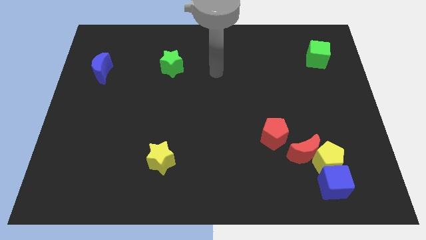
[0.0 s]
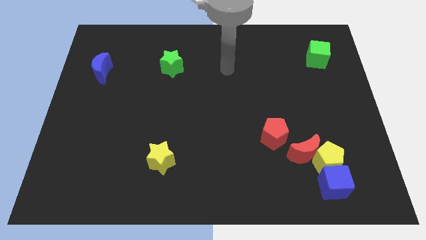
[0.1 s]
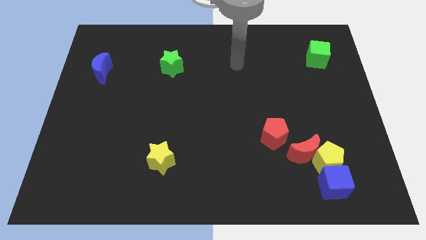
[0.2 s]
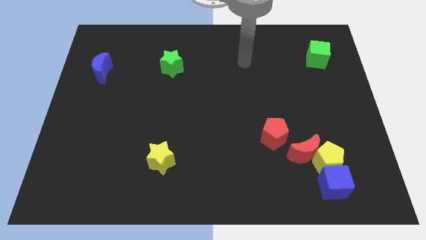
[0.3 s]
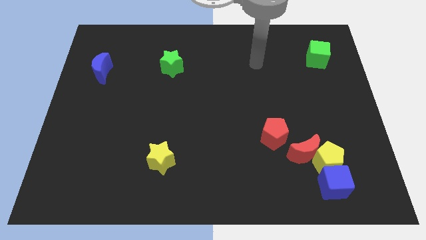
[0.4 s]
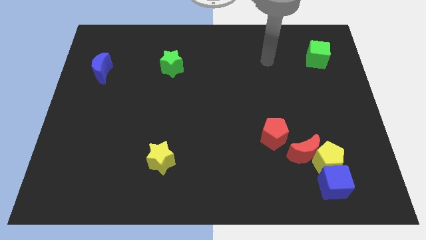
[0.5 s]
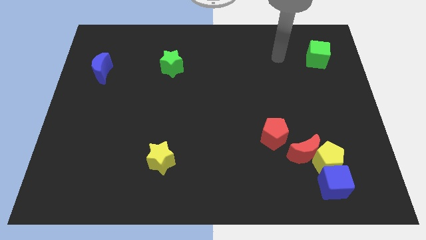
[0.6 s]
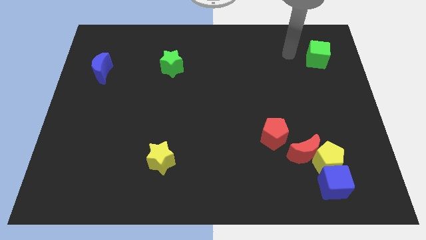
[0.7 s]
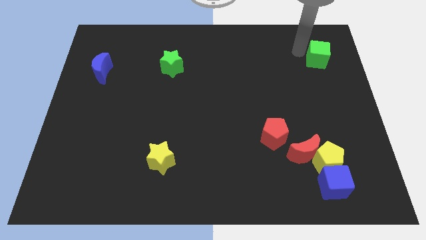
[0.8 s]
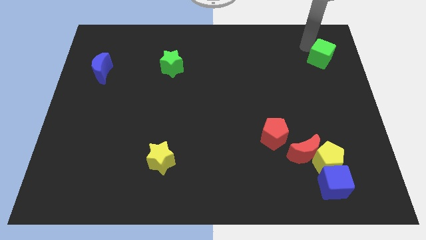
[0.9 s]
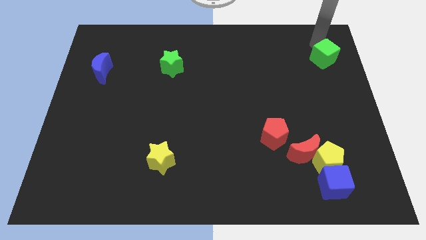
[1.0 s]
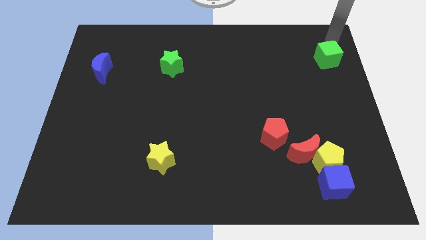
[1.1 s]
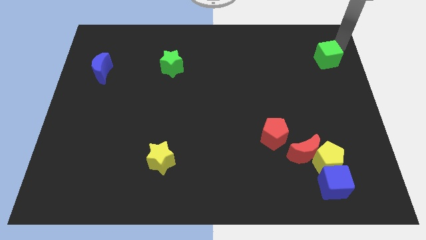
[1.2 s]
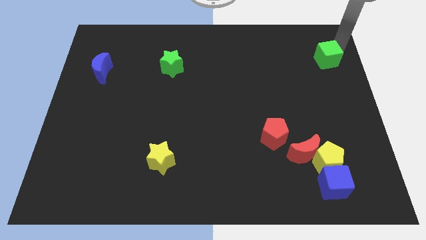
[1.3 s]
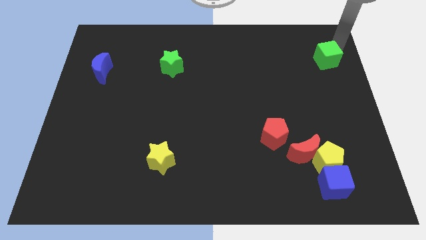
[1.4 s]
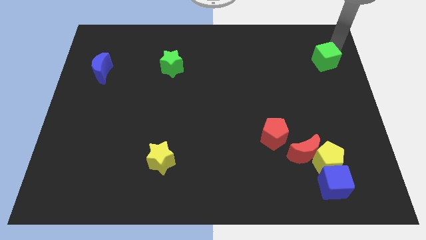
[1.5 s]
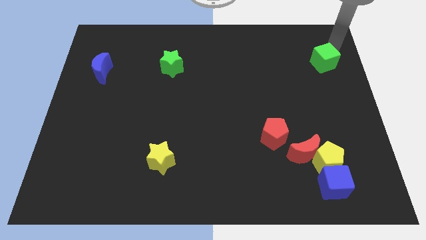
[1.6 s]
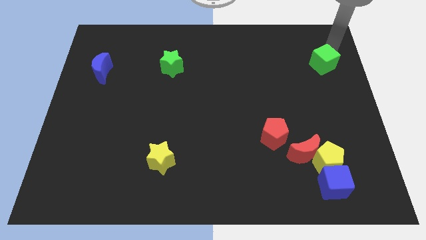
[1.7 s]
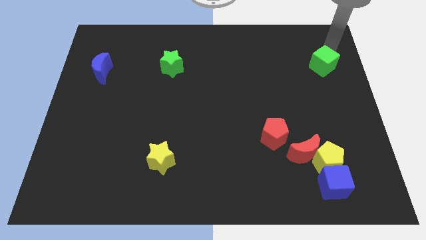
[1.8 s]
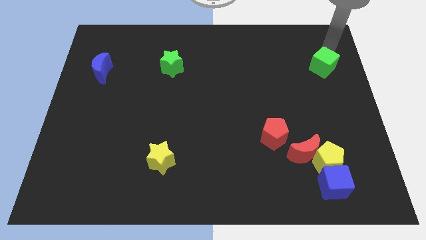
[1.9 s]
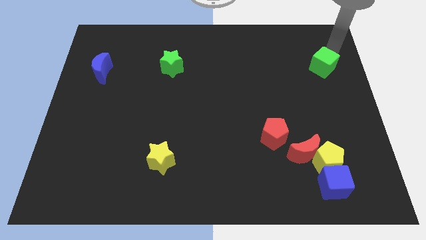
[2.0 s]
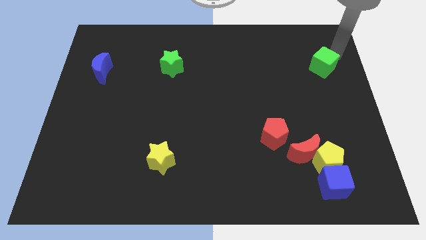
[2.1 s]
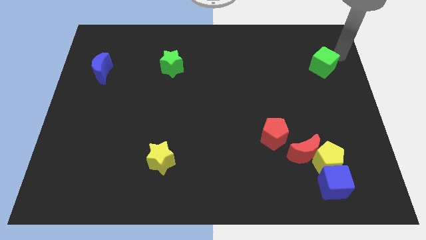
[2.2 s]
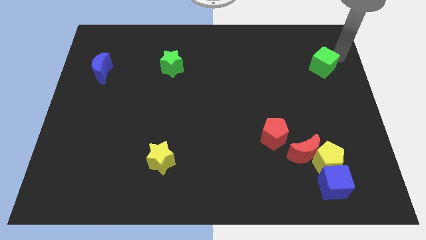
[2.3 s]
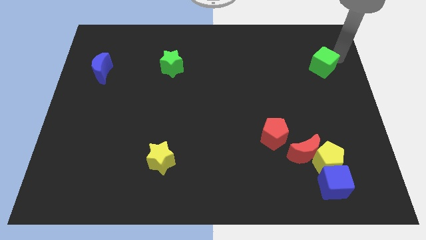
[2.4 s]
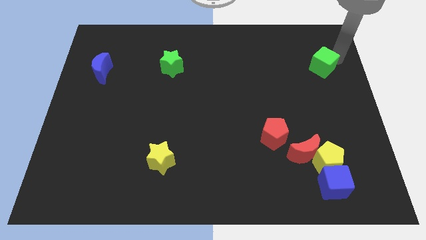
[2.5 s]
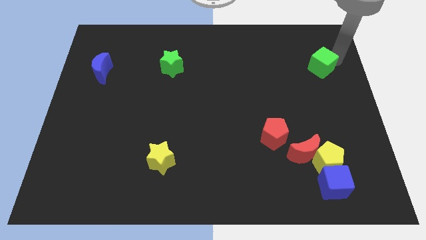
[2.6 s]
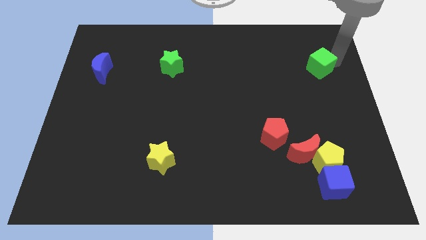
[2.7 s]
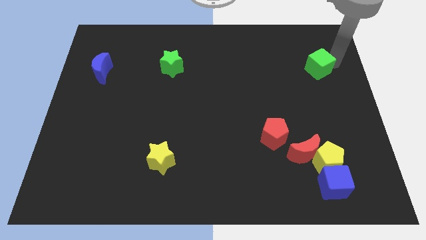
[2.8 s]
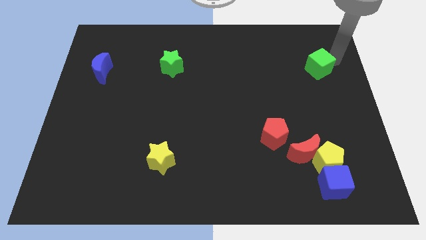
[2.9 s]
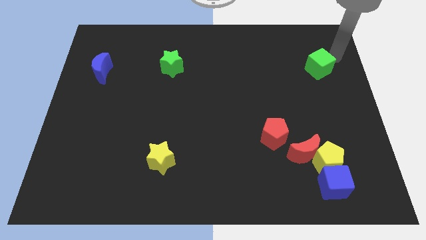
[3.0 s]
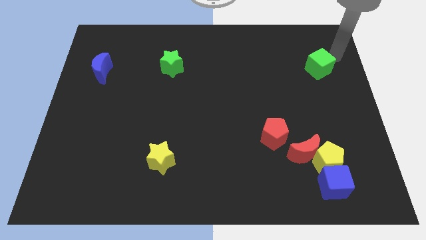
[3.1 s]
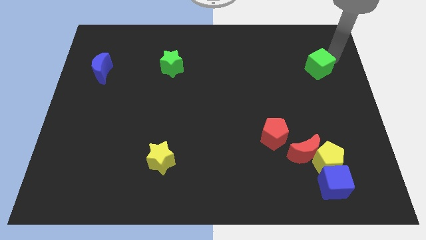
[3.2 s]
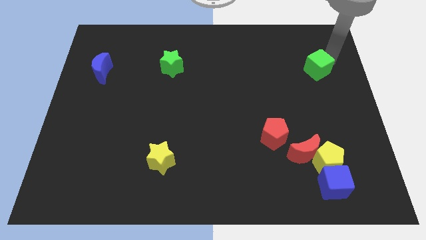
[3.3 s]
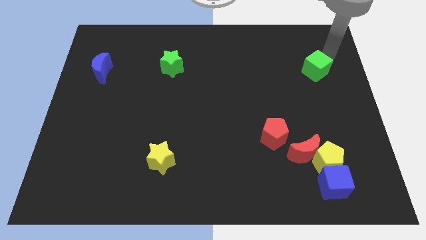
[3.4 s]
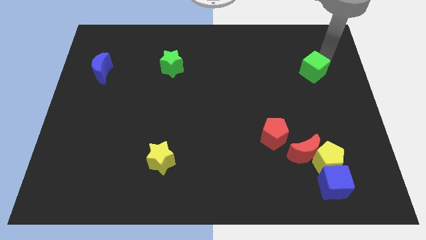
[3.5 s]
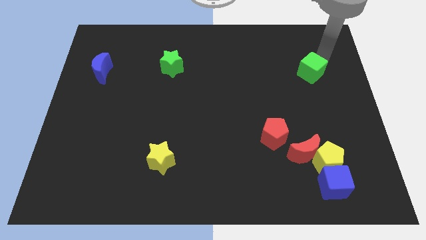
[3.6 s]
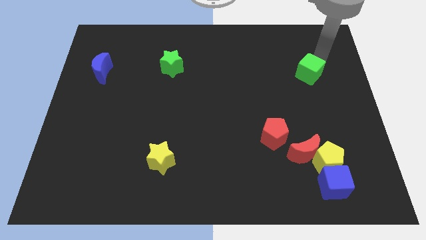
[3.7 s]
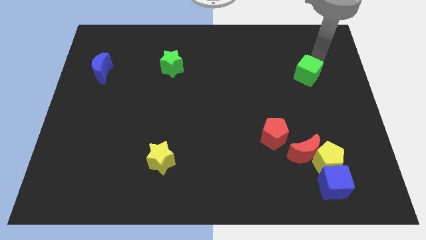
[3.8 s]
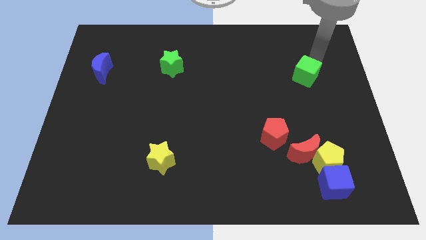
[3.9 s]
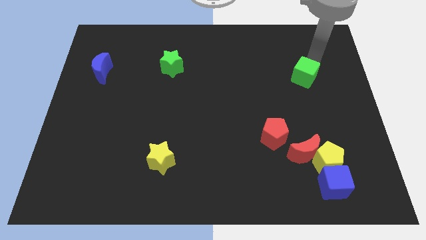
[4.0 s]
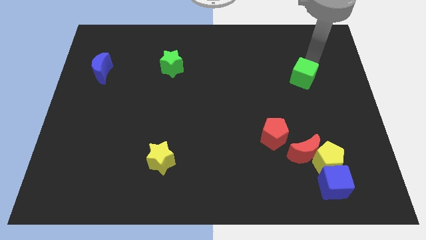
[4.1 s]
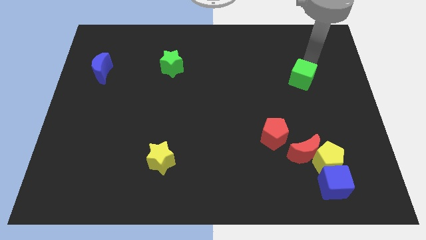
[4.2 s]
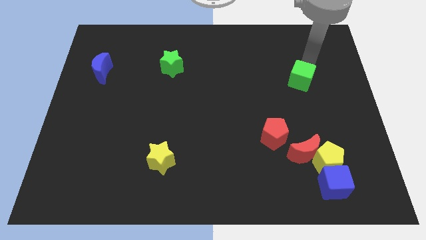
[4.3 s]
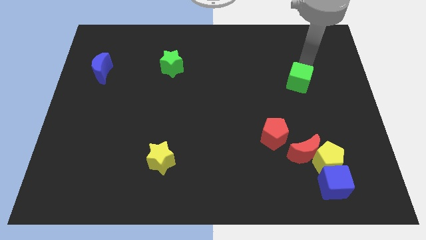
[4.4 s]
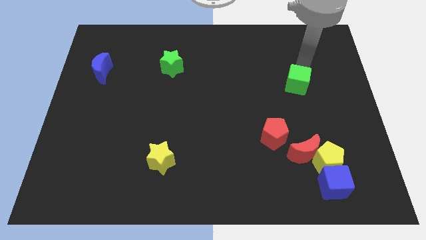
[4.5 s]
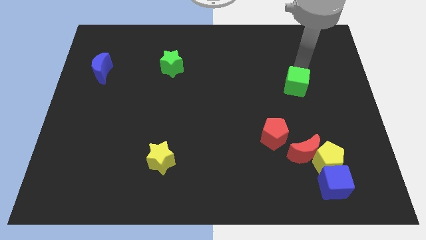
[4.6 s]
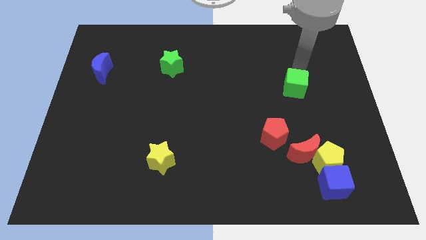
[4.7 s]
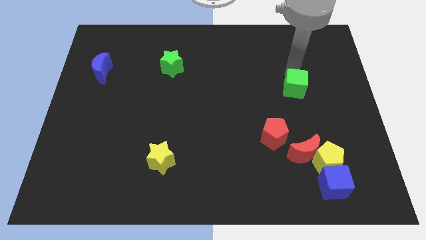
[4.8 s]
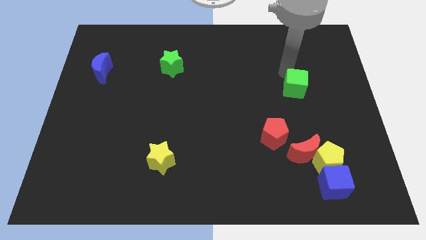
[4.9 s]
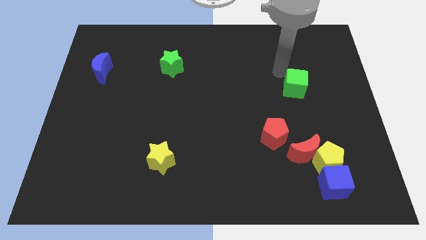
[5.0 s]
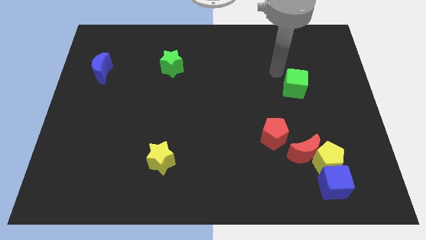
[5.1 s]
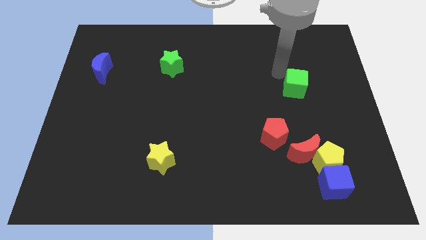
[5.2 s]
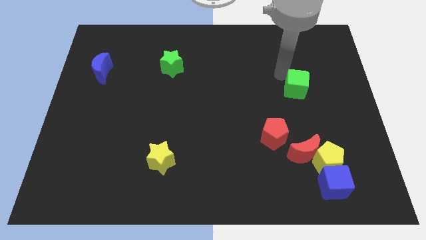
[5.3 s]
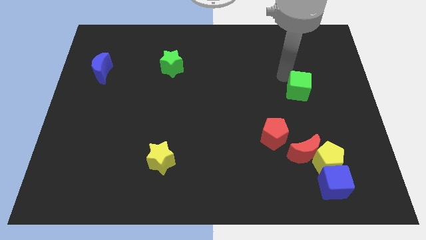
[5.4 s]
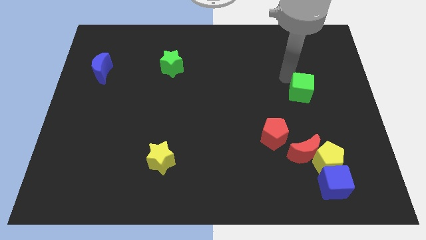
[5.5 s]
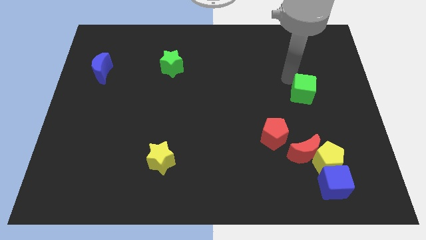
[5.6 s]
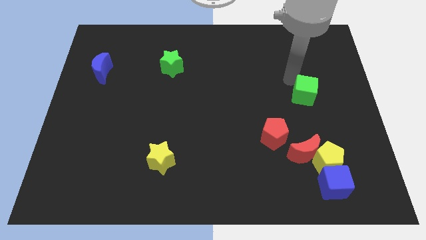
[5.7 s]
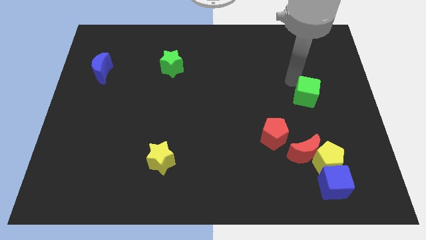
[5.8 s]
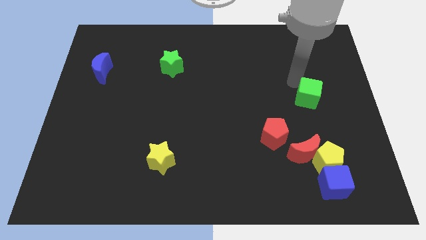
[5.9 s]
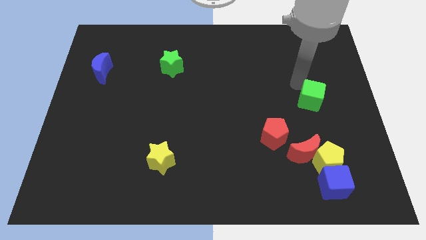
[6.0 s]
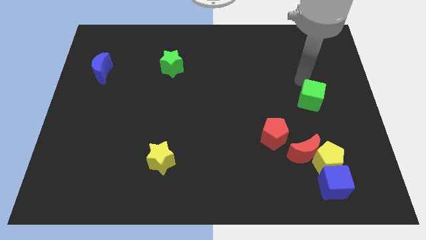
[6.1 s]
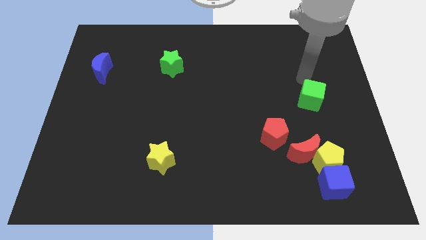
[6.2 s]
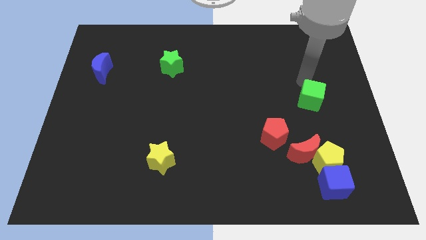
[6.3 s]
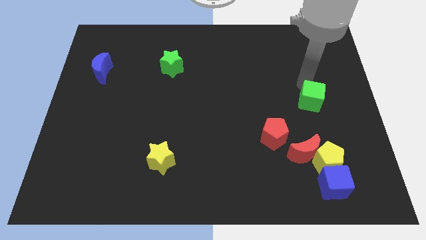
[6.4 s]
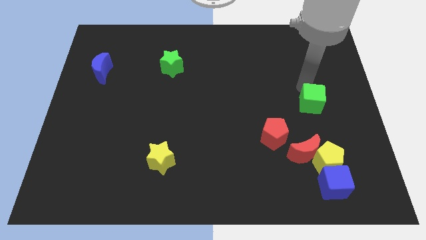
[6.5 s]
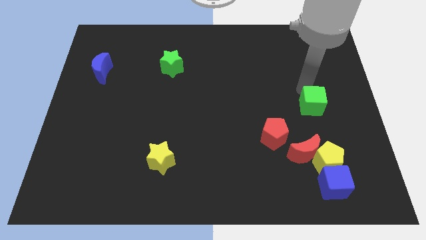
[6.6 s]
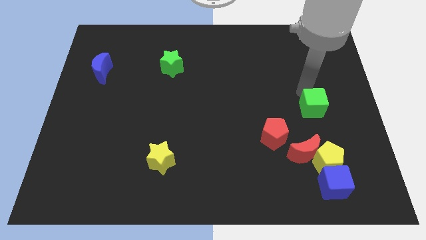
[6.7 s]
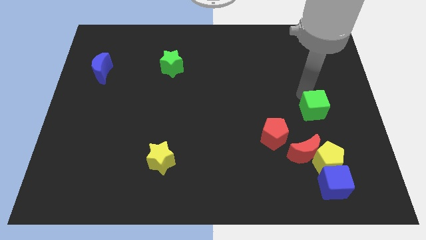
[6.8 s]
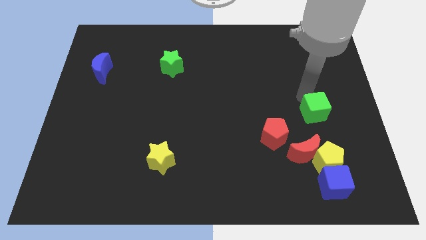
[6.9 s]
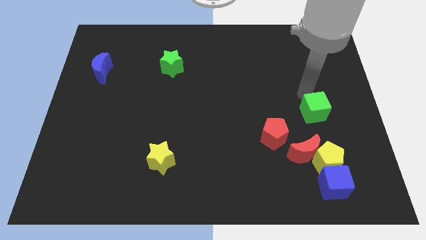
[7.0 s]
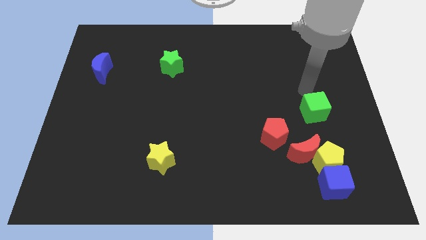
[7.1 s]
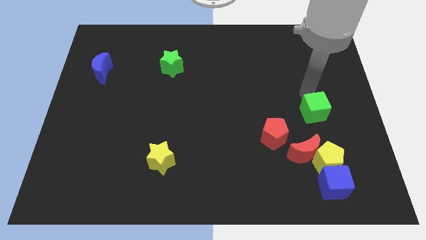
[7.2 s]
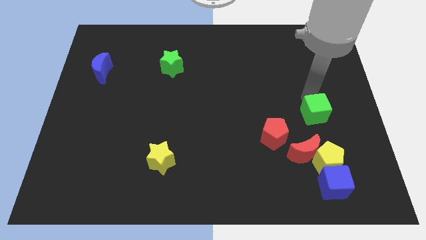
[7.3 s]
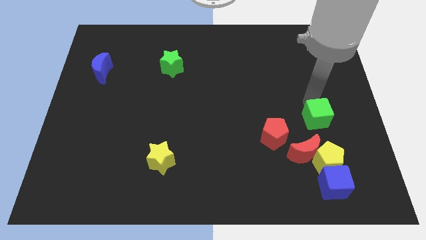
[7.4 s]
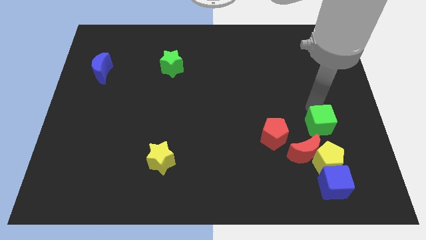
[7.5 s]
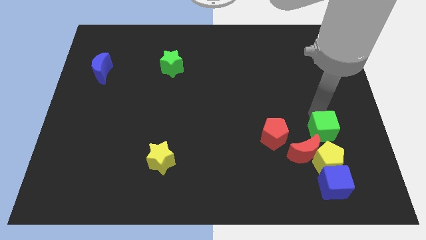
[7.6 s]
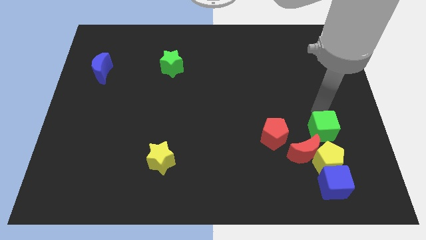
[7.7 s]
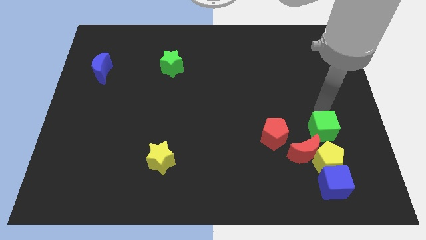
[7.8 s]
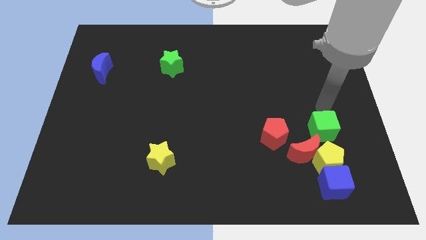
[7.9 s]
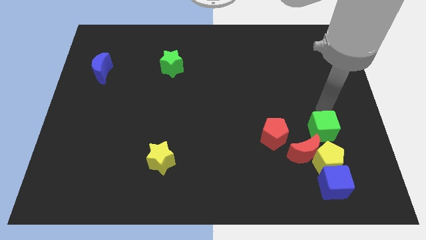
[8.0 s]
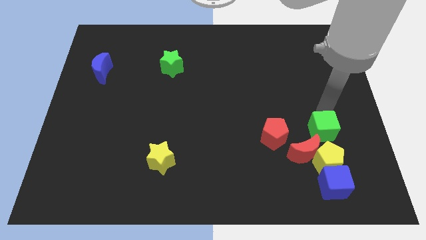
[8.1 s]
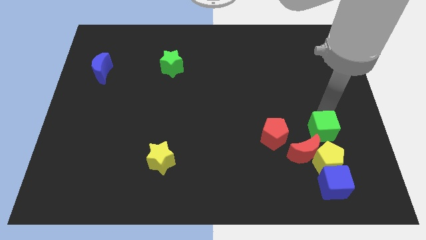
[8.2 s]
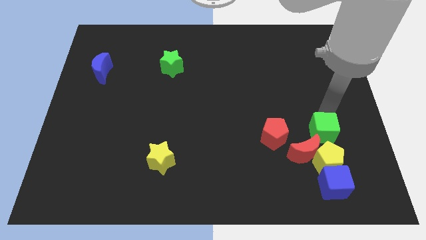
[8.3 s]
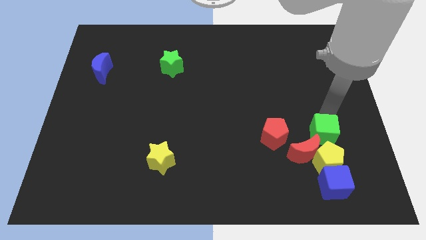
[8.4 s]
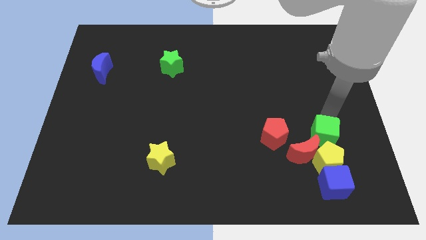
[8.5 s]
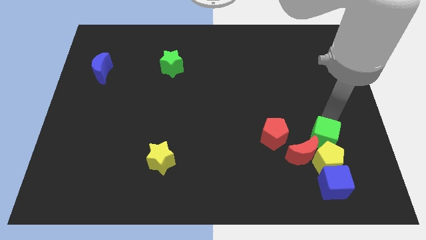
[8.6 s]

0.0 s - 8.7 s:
slide the green cube to the yellow pentagon
